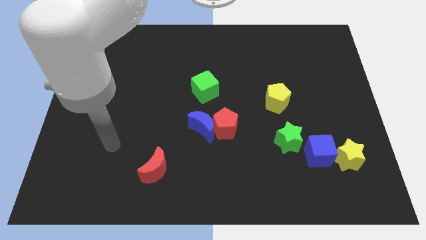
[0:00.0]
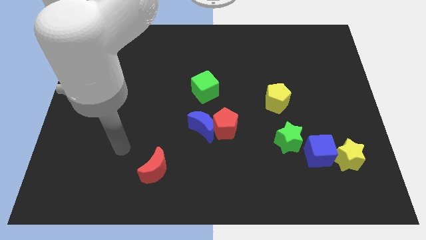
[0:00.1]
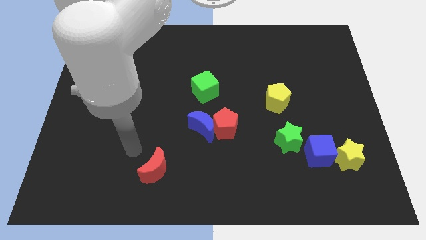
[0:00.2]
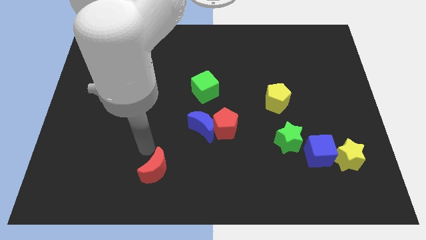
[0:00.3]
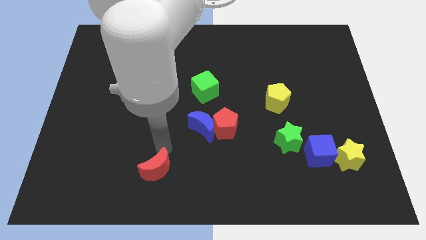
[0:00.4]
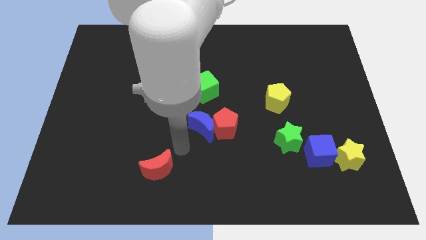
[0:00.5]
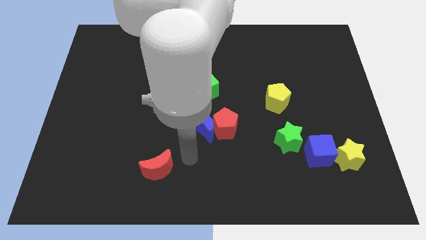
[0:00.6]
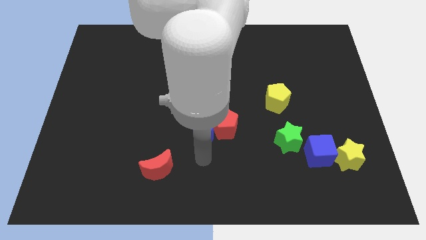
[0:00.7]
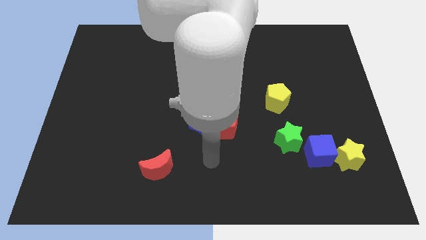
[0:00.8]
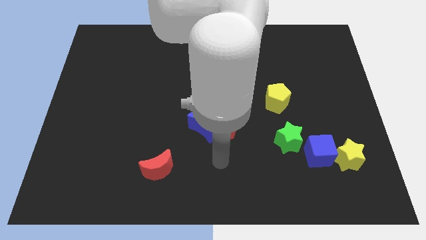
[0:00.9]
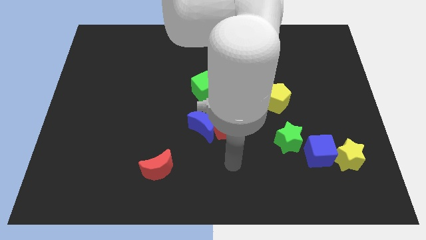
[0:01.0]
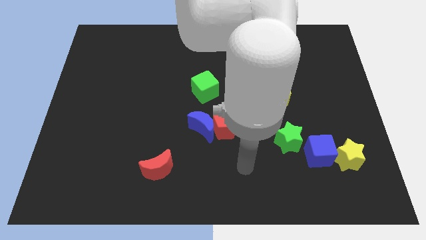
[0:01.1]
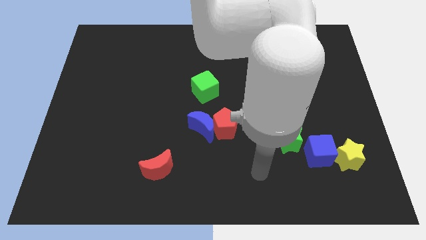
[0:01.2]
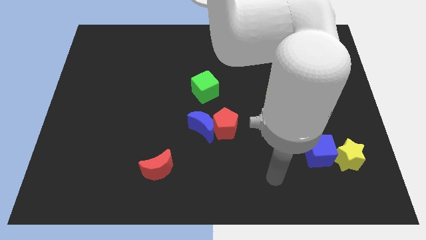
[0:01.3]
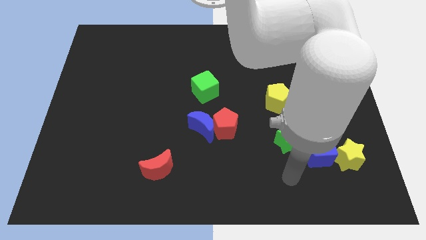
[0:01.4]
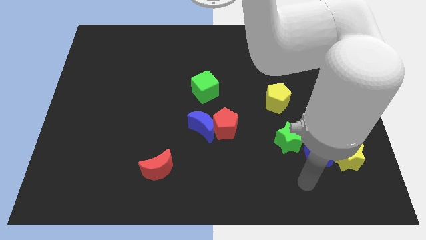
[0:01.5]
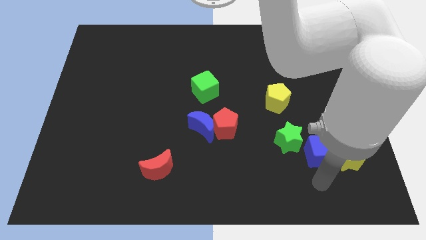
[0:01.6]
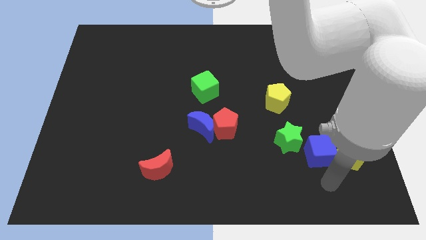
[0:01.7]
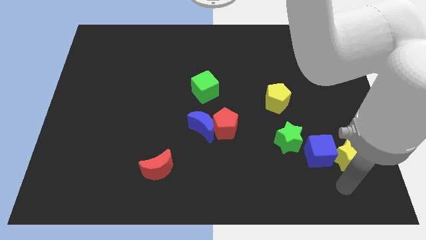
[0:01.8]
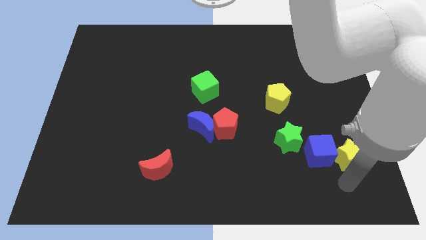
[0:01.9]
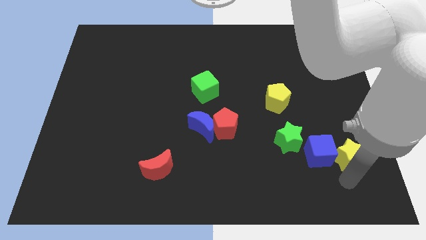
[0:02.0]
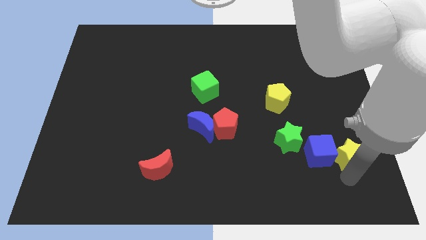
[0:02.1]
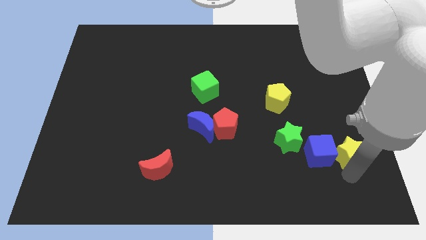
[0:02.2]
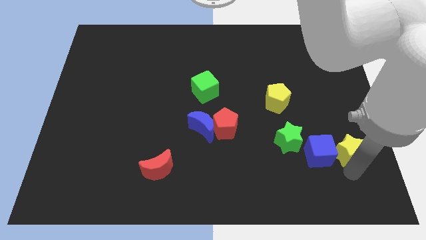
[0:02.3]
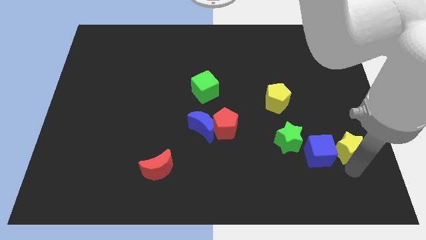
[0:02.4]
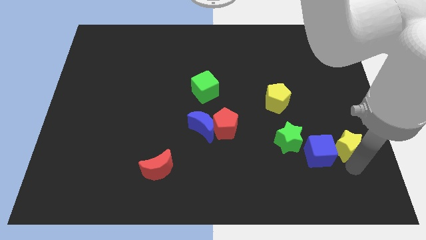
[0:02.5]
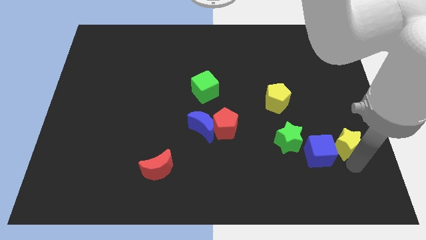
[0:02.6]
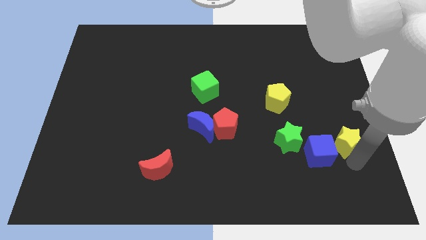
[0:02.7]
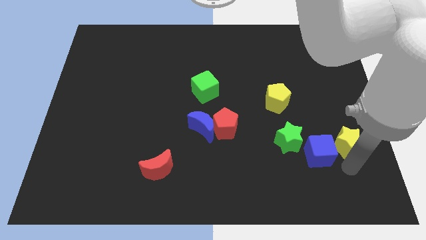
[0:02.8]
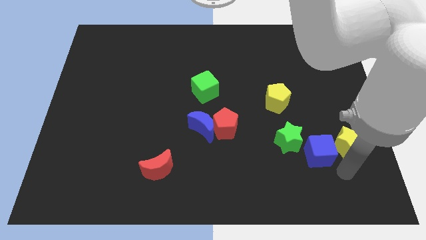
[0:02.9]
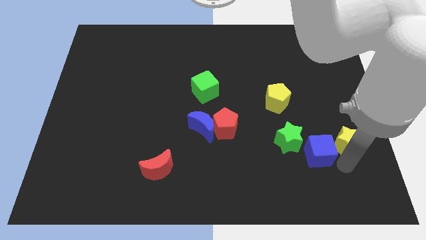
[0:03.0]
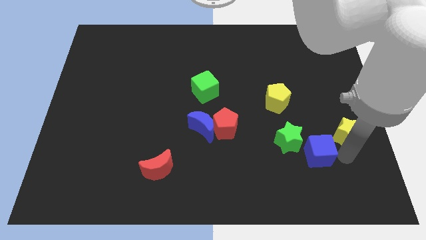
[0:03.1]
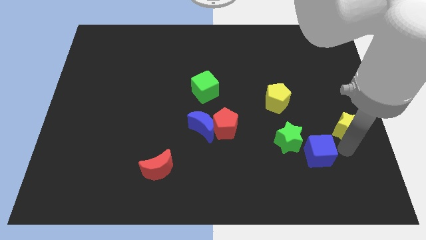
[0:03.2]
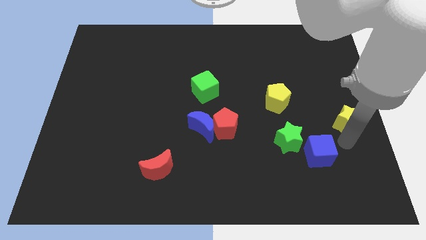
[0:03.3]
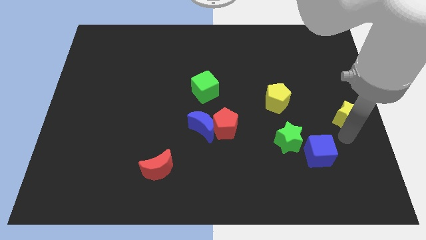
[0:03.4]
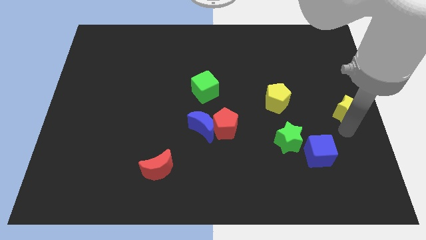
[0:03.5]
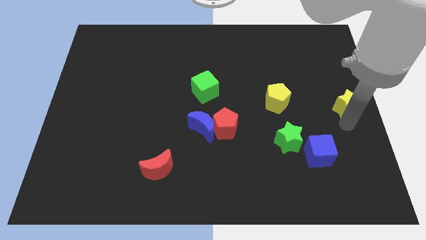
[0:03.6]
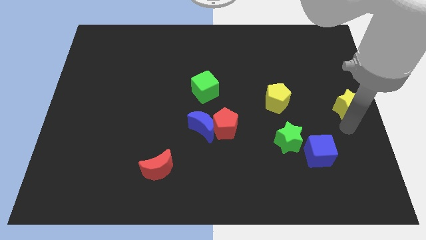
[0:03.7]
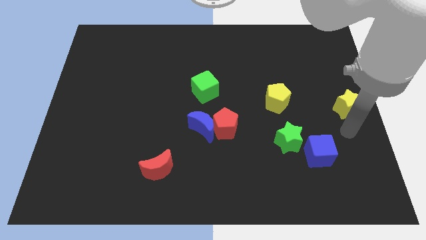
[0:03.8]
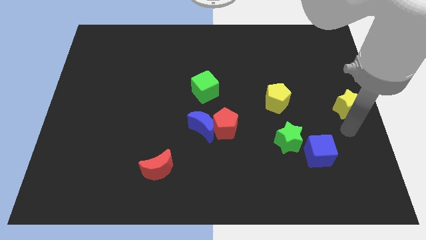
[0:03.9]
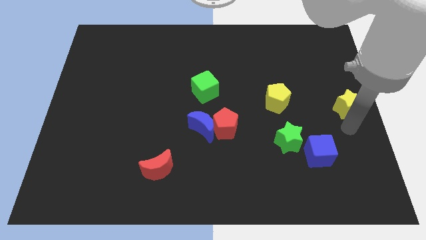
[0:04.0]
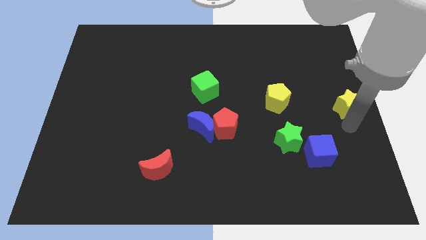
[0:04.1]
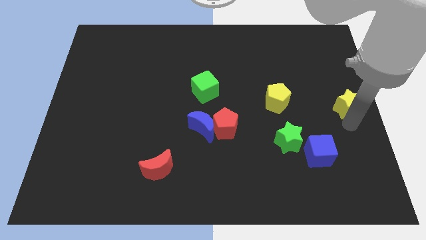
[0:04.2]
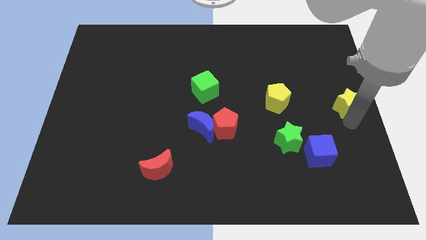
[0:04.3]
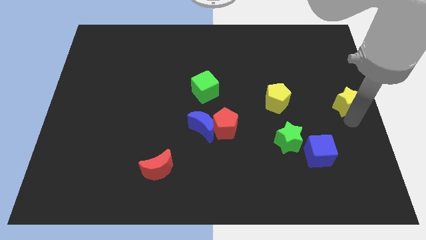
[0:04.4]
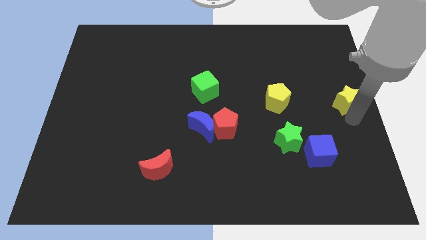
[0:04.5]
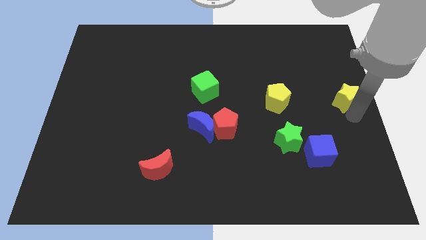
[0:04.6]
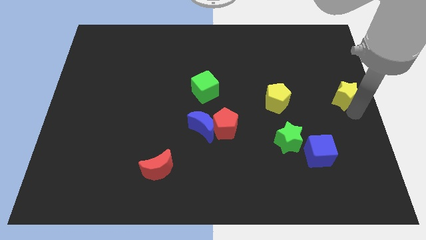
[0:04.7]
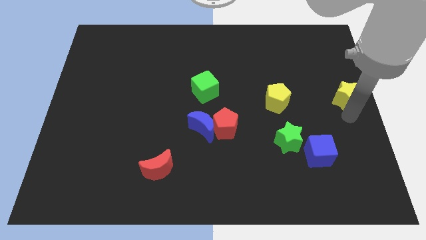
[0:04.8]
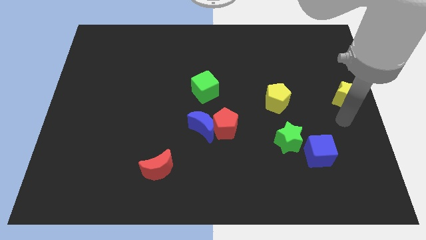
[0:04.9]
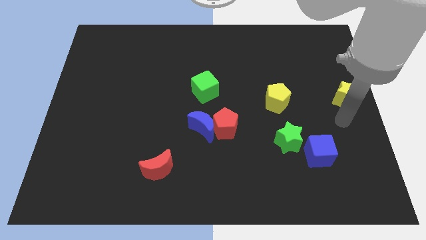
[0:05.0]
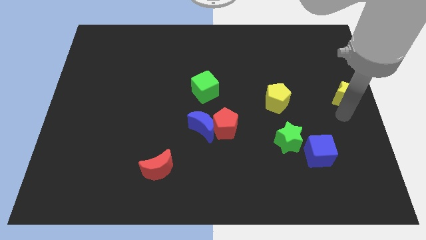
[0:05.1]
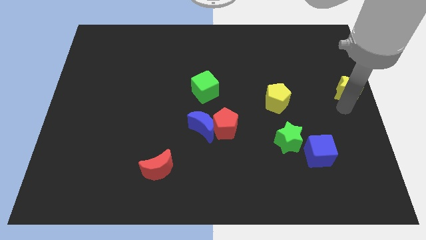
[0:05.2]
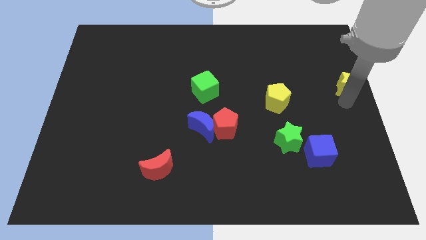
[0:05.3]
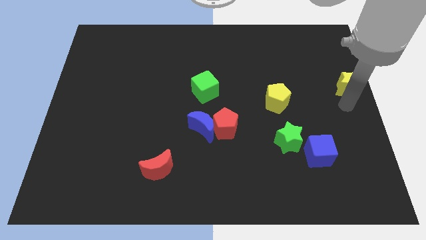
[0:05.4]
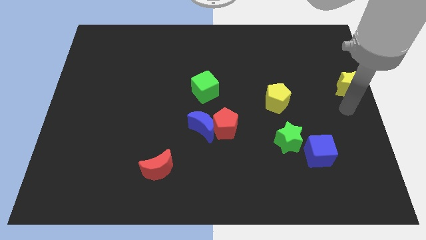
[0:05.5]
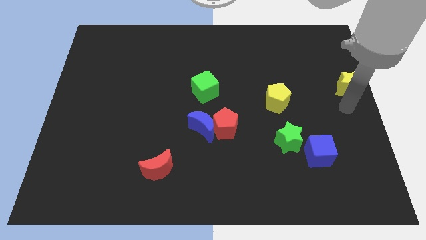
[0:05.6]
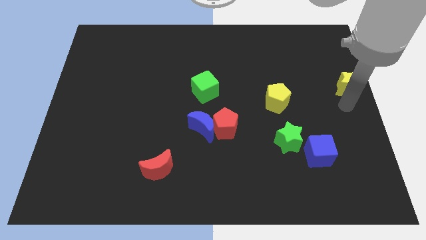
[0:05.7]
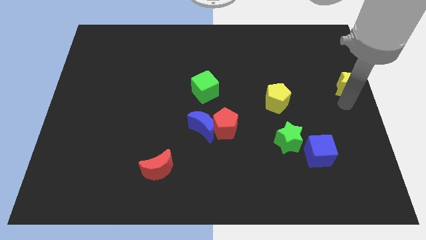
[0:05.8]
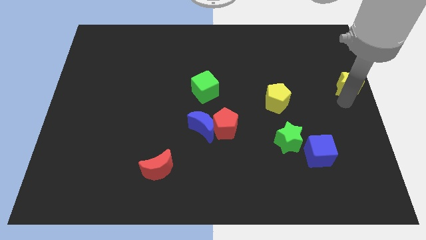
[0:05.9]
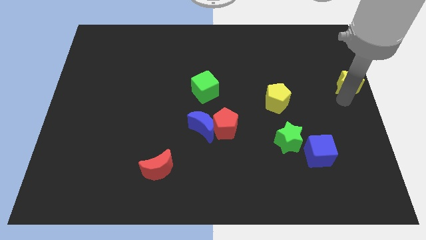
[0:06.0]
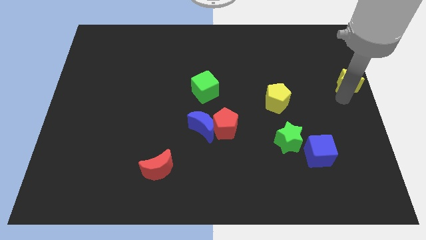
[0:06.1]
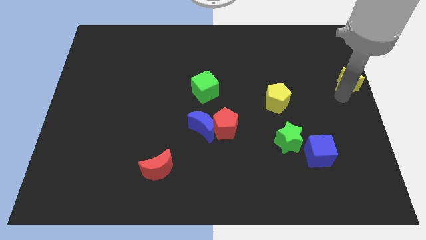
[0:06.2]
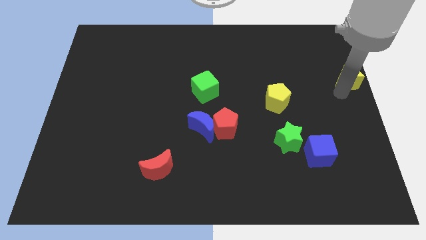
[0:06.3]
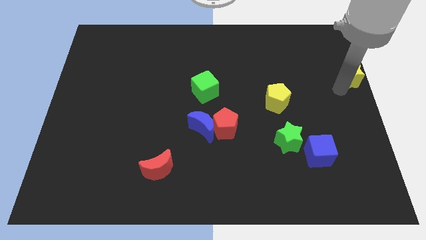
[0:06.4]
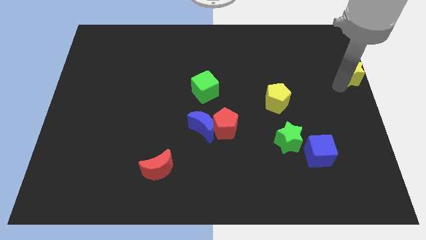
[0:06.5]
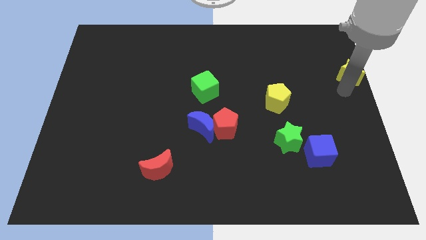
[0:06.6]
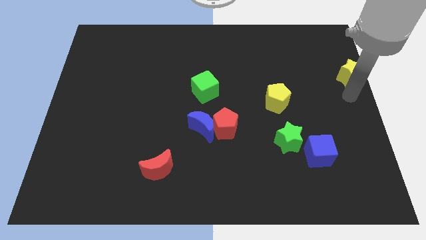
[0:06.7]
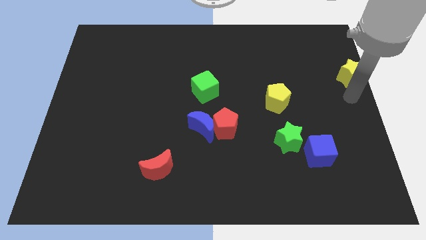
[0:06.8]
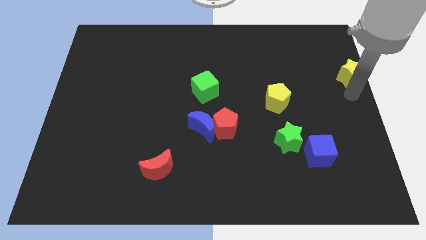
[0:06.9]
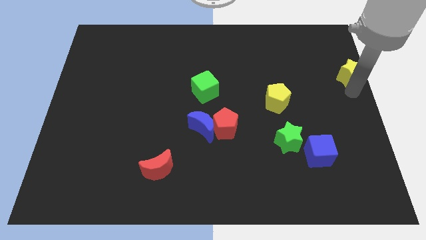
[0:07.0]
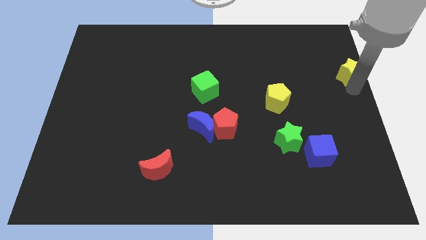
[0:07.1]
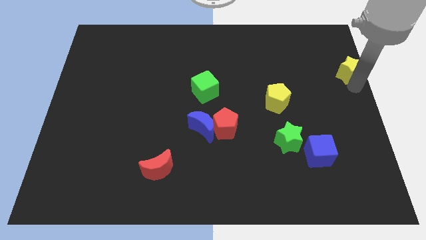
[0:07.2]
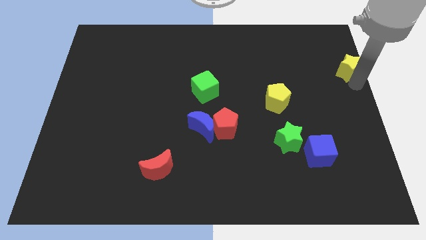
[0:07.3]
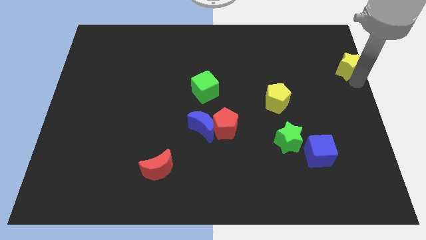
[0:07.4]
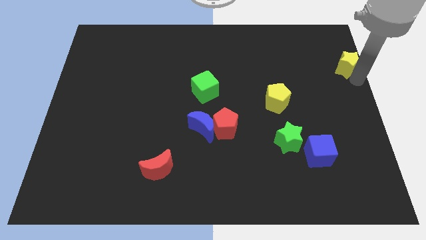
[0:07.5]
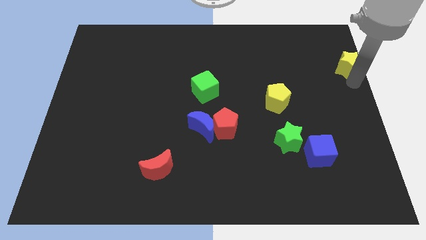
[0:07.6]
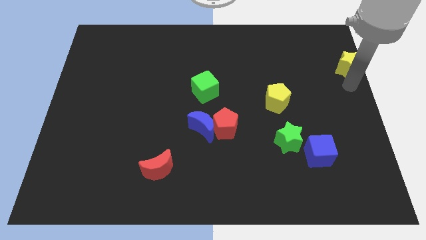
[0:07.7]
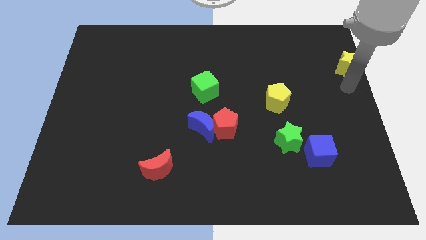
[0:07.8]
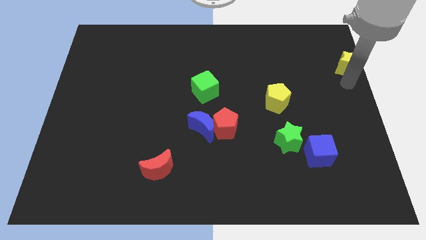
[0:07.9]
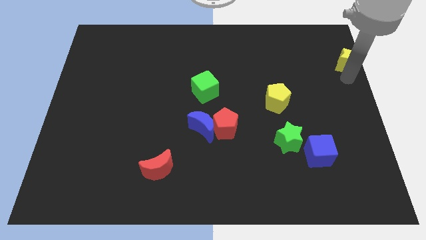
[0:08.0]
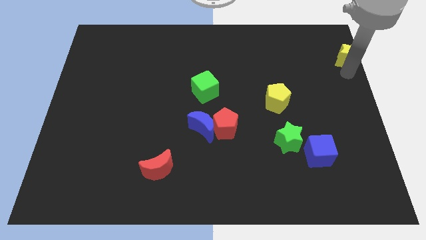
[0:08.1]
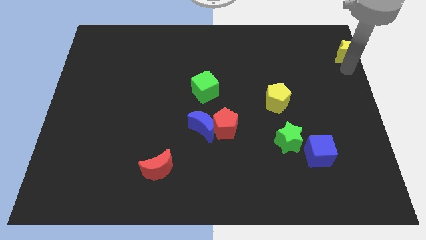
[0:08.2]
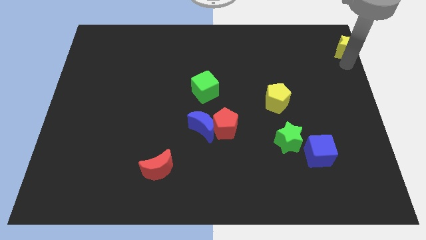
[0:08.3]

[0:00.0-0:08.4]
push the yellow star to the top right
